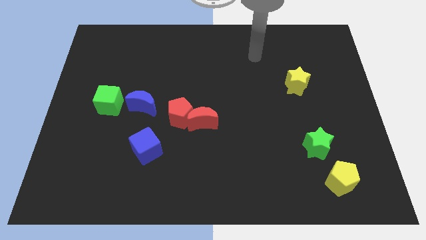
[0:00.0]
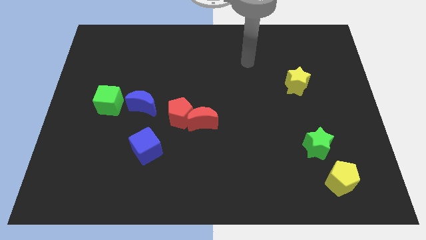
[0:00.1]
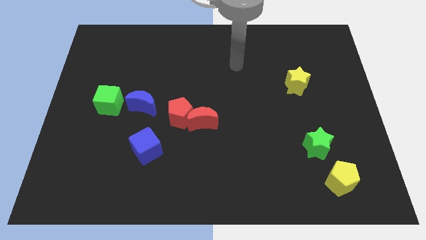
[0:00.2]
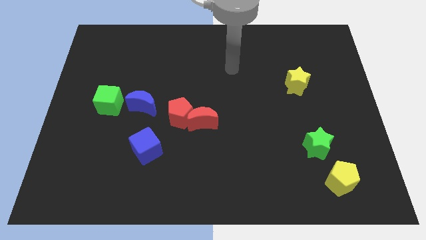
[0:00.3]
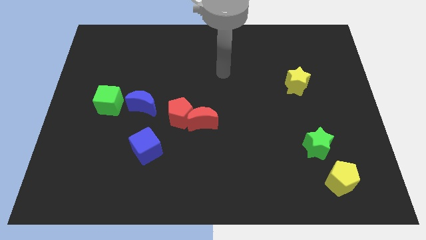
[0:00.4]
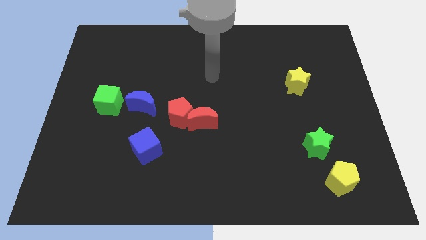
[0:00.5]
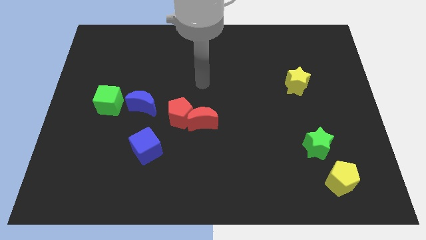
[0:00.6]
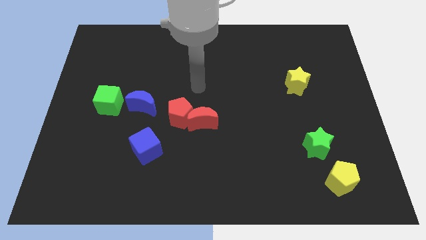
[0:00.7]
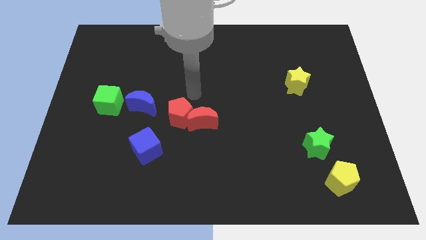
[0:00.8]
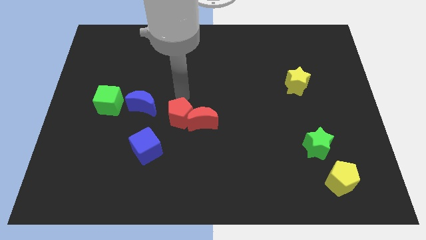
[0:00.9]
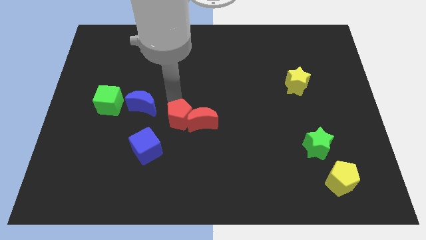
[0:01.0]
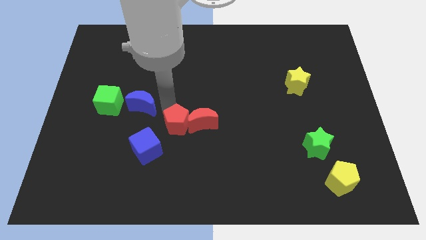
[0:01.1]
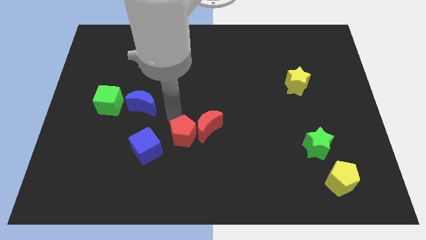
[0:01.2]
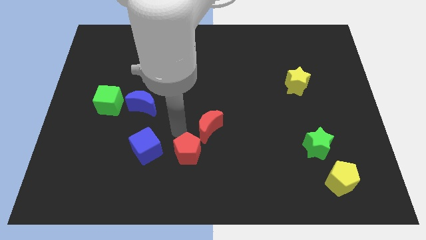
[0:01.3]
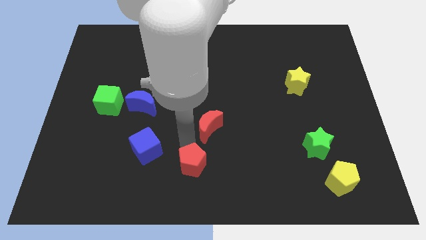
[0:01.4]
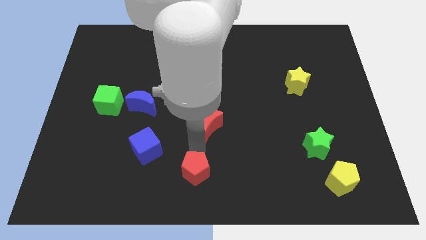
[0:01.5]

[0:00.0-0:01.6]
pull the red moon apart from the red pentagon

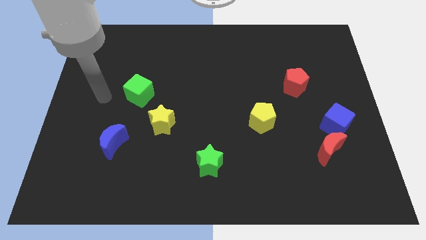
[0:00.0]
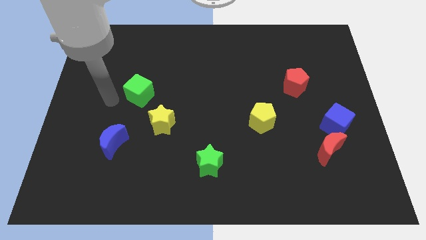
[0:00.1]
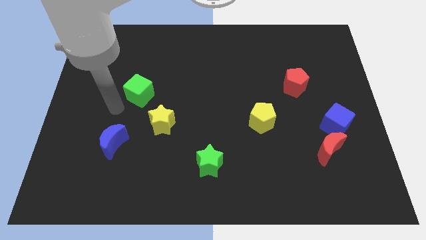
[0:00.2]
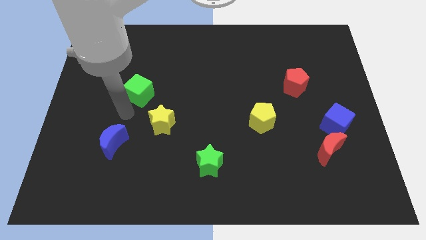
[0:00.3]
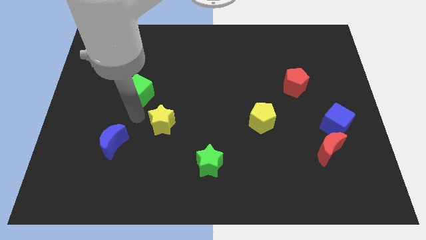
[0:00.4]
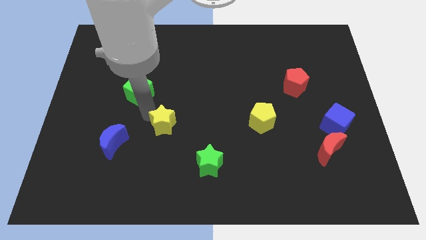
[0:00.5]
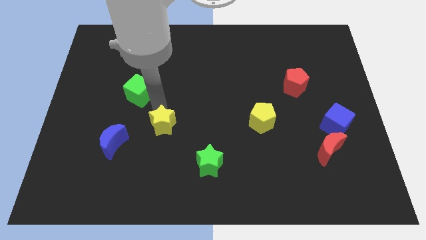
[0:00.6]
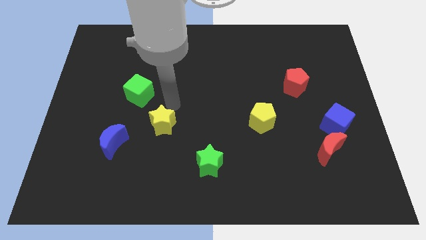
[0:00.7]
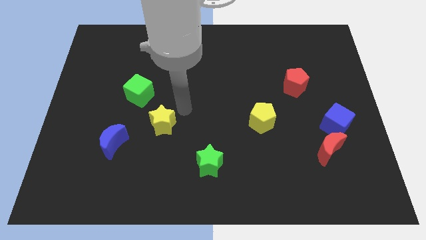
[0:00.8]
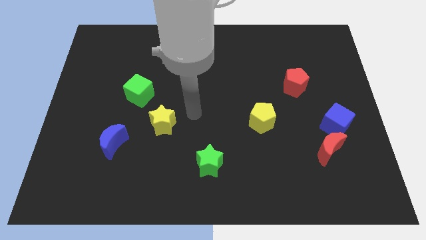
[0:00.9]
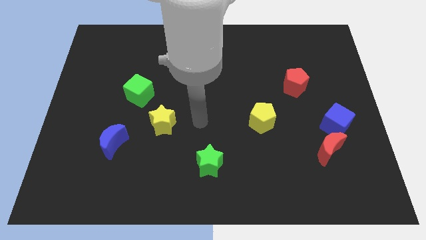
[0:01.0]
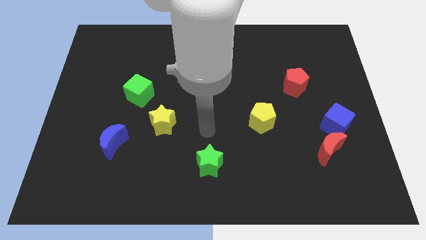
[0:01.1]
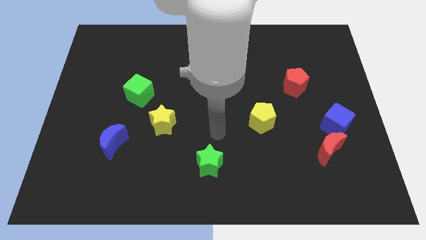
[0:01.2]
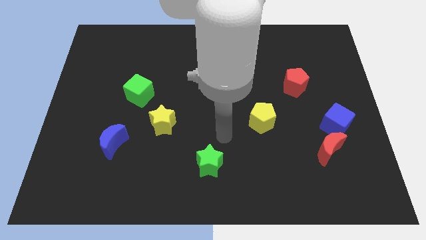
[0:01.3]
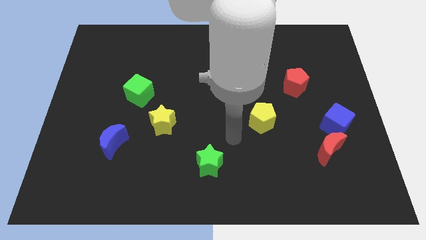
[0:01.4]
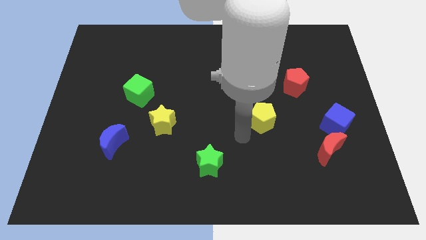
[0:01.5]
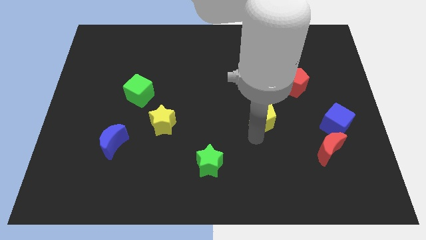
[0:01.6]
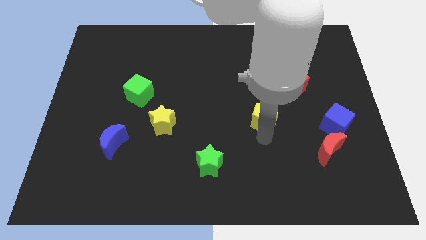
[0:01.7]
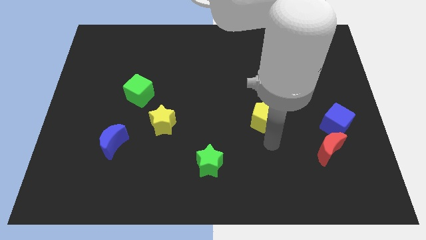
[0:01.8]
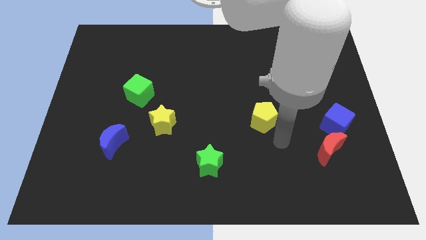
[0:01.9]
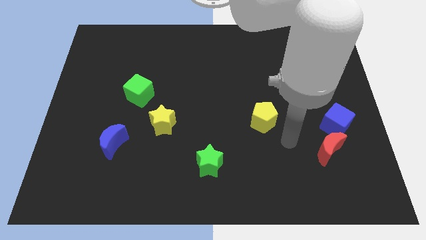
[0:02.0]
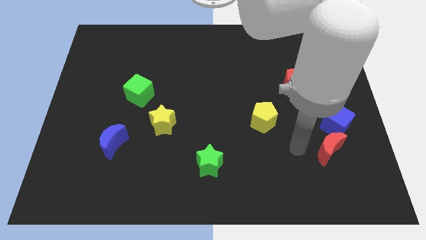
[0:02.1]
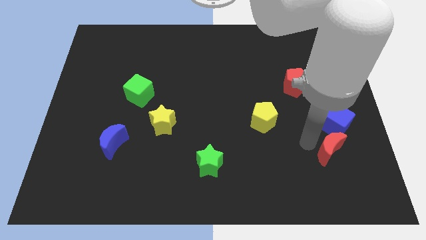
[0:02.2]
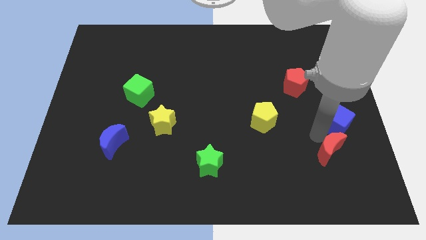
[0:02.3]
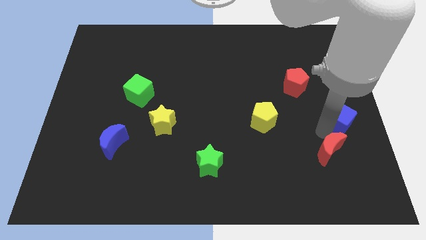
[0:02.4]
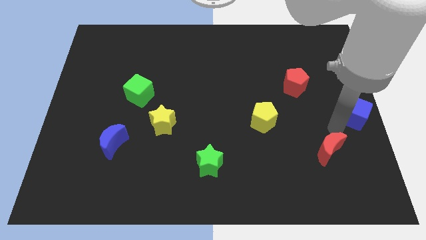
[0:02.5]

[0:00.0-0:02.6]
separate the red moon from the blue cube

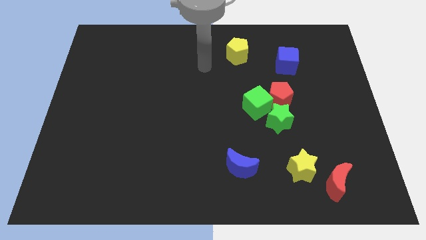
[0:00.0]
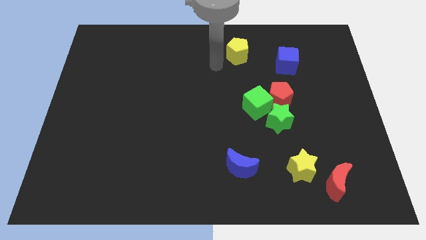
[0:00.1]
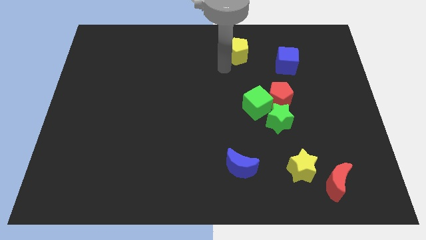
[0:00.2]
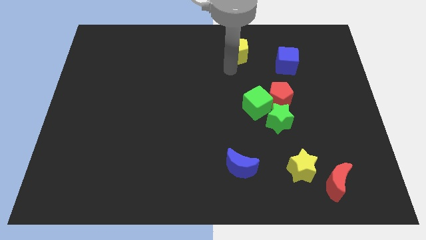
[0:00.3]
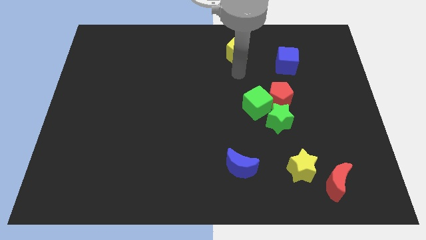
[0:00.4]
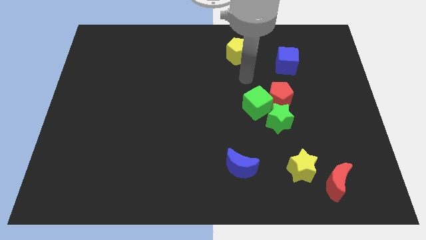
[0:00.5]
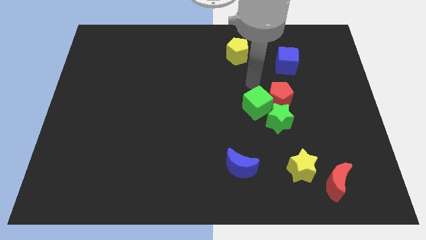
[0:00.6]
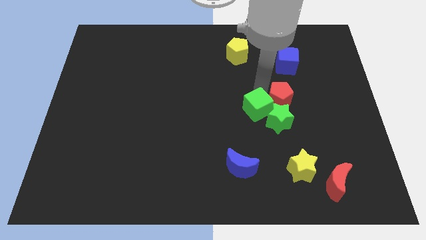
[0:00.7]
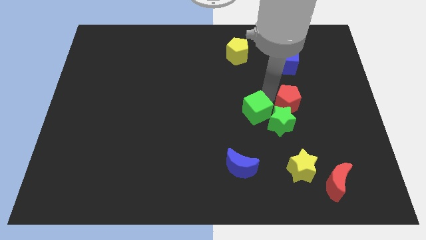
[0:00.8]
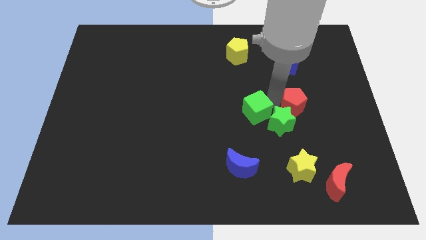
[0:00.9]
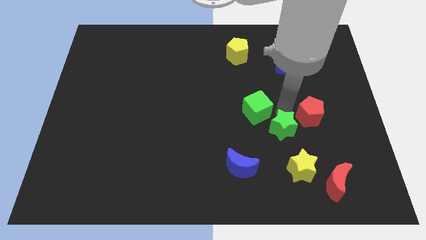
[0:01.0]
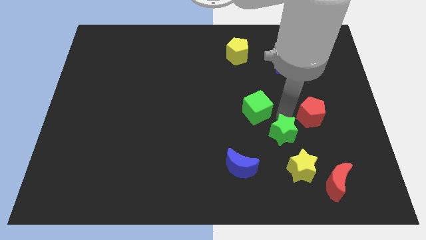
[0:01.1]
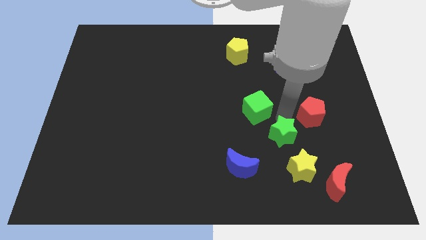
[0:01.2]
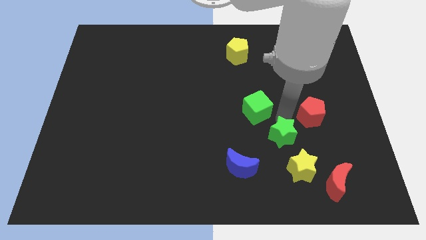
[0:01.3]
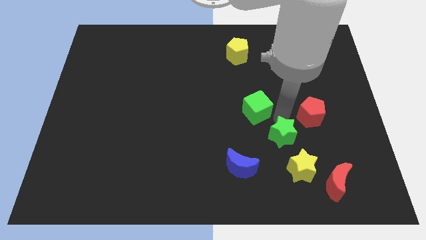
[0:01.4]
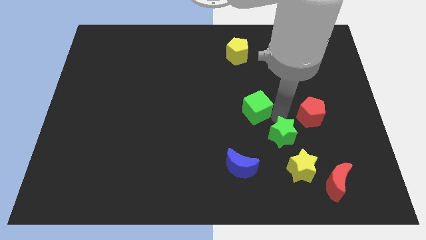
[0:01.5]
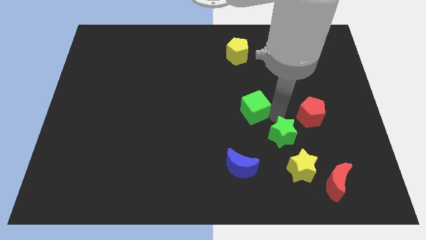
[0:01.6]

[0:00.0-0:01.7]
move the green cube away from the red pentagon and green star

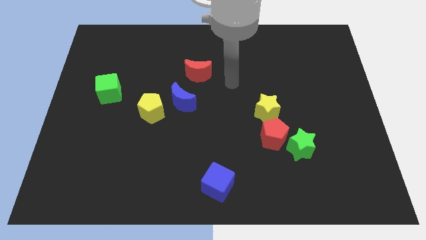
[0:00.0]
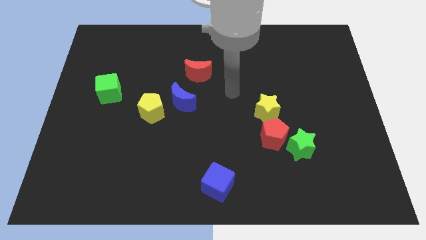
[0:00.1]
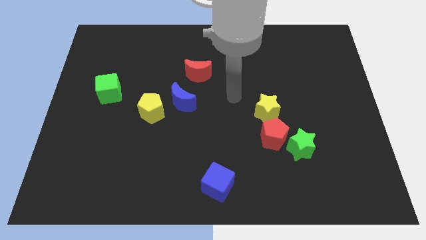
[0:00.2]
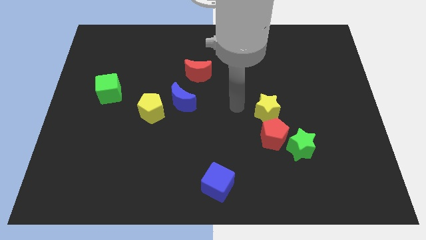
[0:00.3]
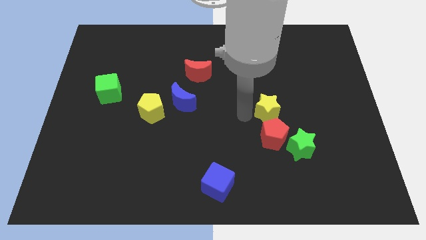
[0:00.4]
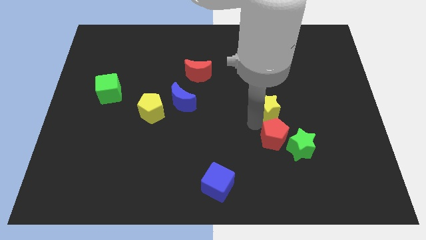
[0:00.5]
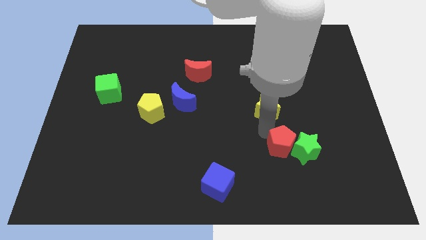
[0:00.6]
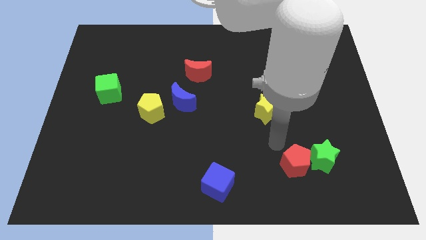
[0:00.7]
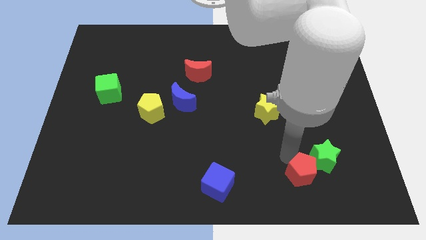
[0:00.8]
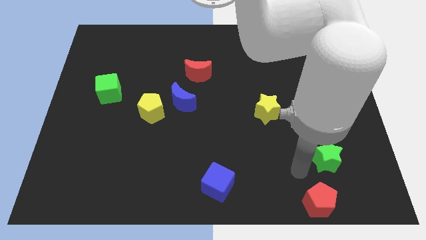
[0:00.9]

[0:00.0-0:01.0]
move the green star away from the red pentagon

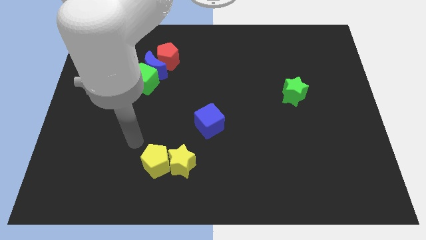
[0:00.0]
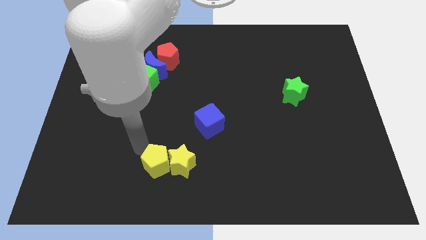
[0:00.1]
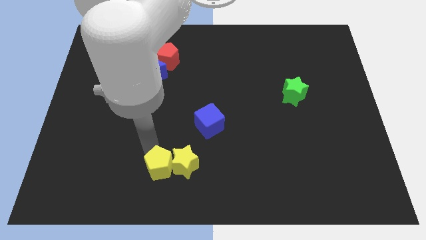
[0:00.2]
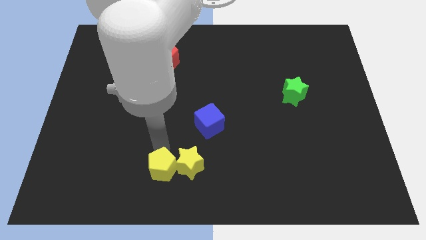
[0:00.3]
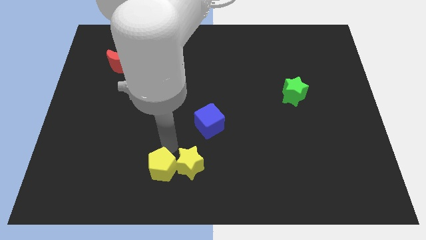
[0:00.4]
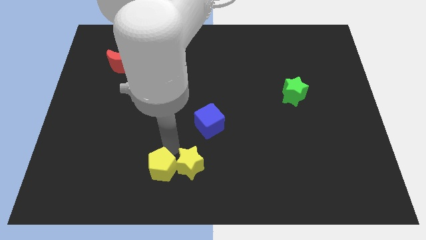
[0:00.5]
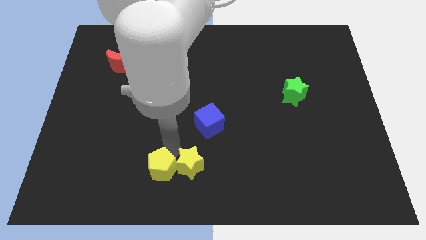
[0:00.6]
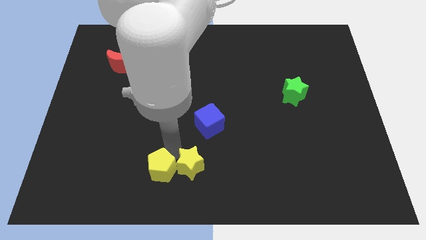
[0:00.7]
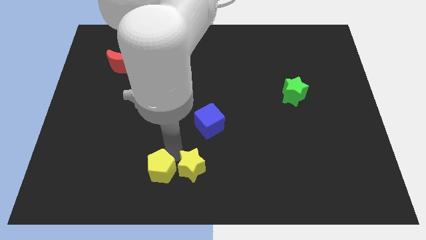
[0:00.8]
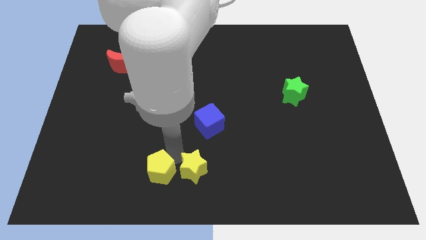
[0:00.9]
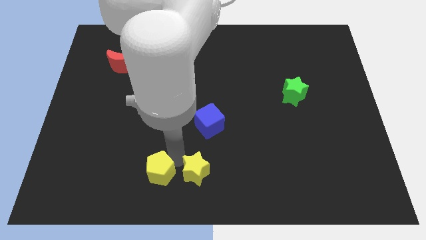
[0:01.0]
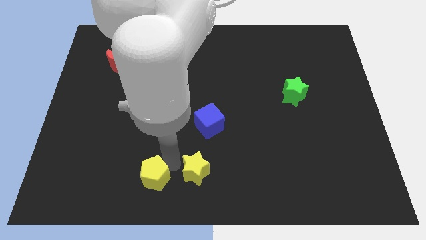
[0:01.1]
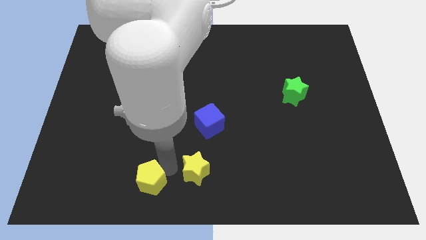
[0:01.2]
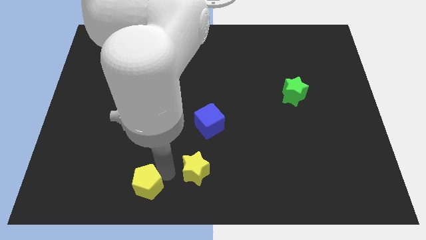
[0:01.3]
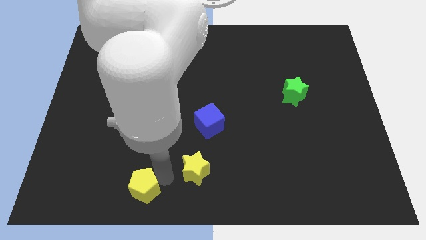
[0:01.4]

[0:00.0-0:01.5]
separate the yellow star from the yellow pentagon

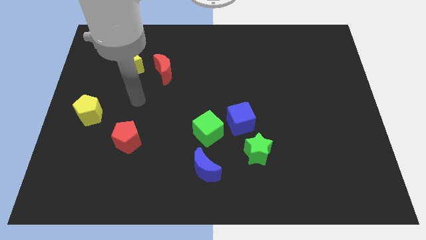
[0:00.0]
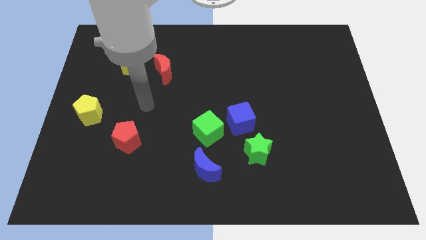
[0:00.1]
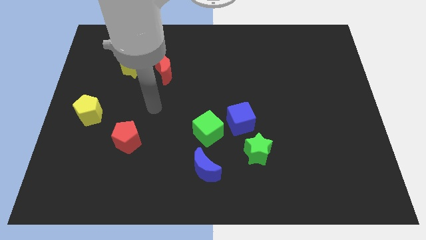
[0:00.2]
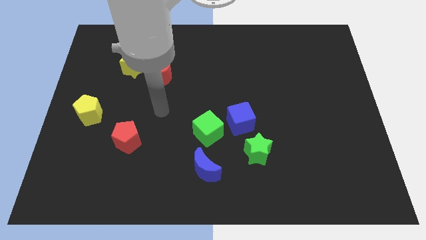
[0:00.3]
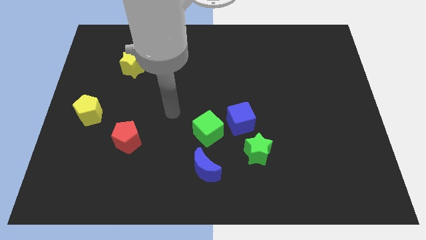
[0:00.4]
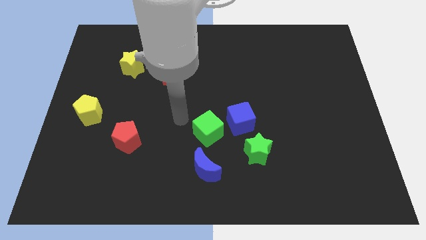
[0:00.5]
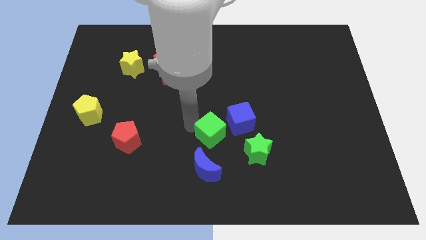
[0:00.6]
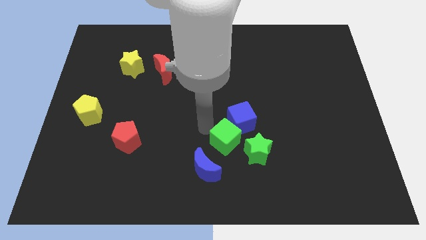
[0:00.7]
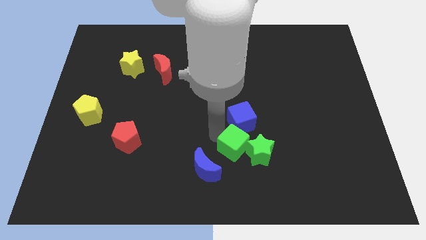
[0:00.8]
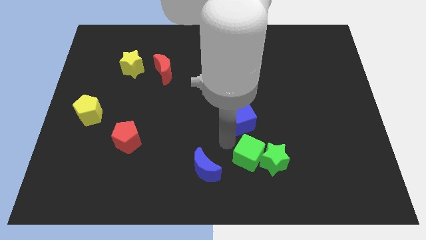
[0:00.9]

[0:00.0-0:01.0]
separate the blue cube from the green cube and green star
